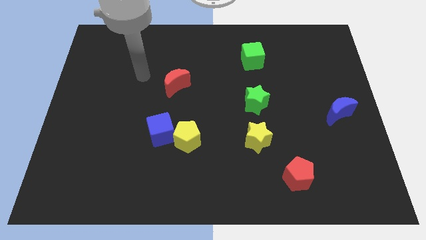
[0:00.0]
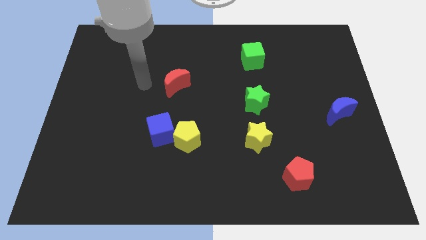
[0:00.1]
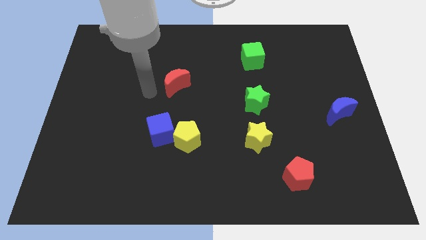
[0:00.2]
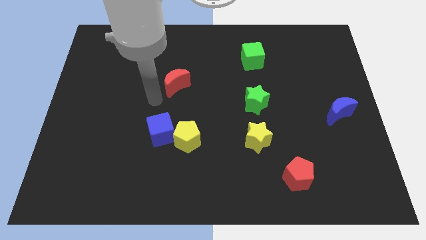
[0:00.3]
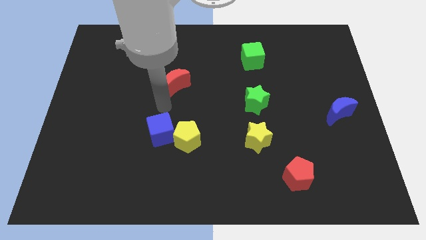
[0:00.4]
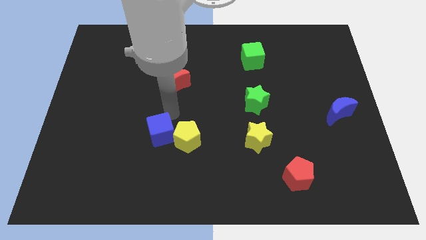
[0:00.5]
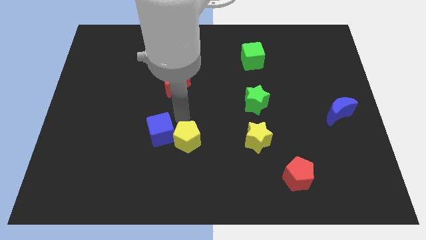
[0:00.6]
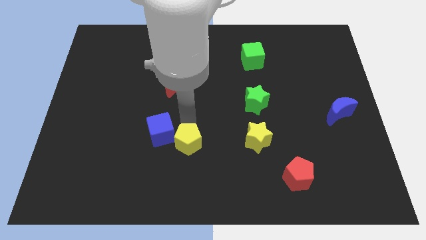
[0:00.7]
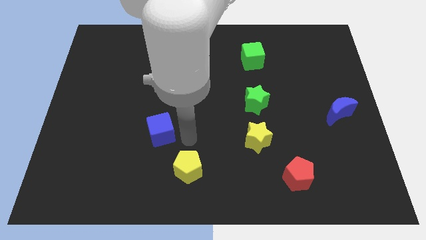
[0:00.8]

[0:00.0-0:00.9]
pull the blue cube apart from the yellow pentagon

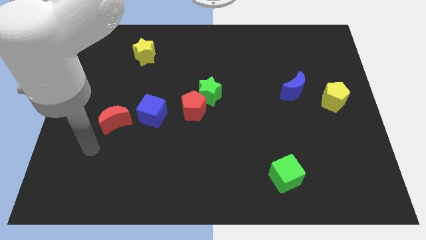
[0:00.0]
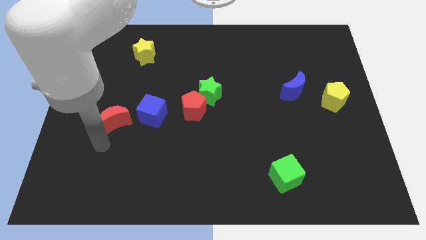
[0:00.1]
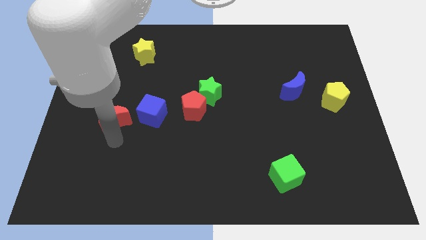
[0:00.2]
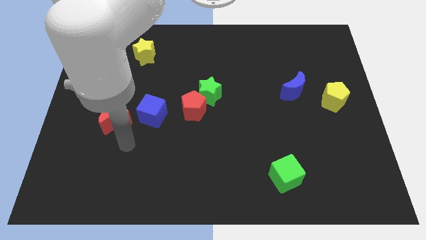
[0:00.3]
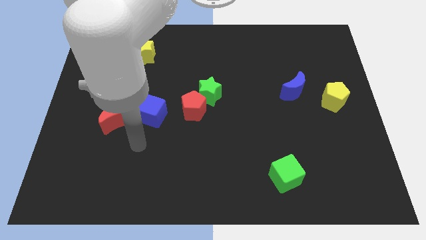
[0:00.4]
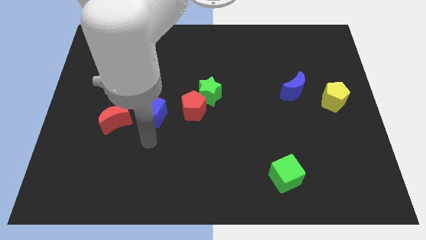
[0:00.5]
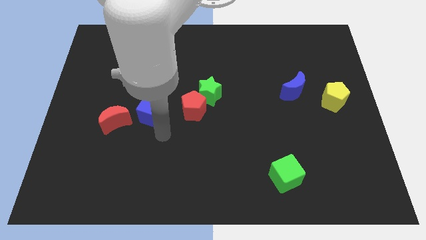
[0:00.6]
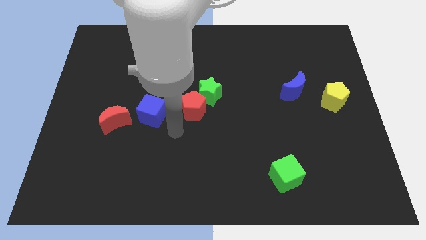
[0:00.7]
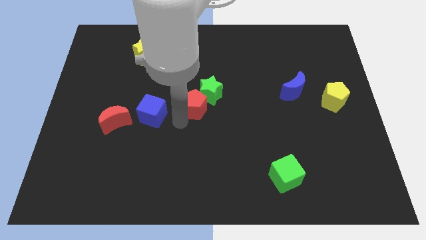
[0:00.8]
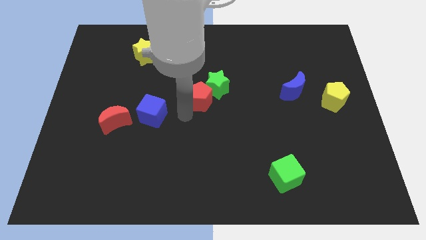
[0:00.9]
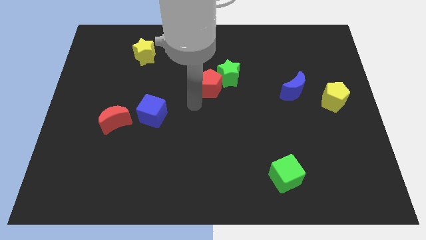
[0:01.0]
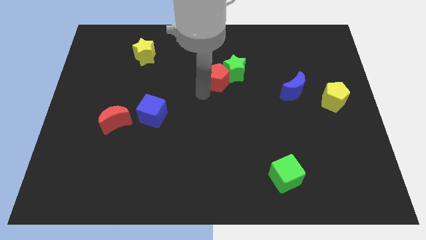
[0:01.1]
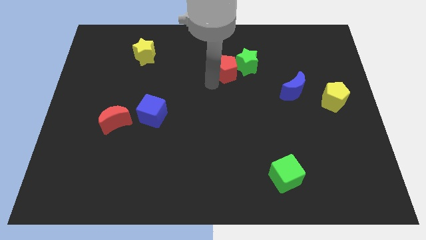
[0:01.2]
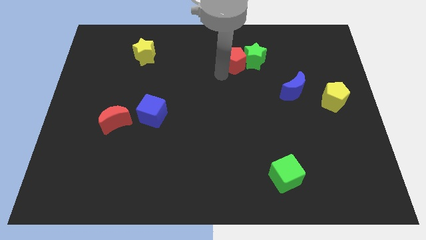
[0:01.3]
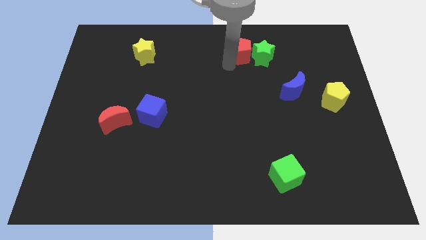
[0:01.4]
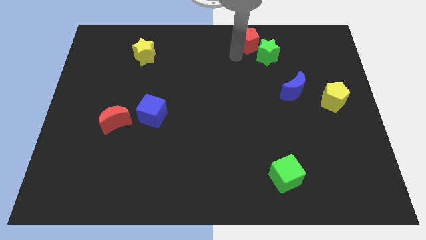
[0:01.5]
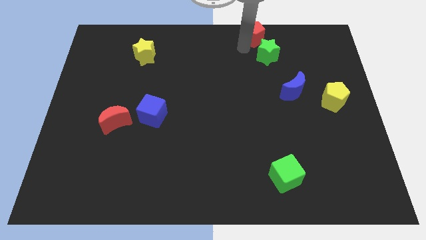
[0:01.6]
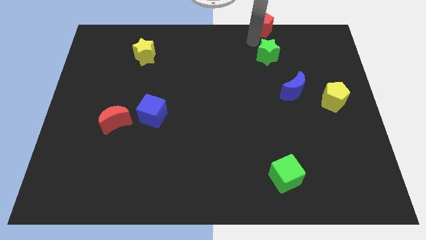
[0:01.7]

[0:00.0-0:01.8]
move the green star away from the red pentagon

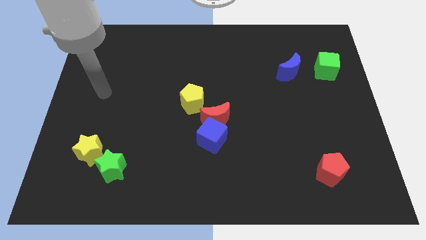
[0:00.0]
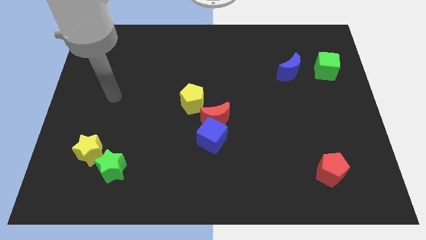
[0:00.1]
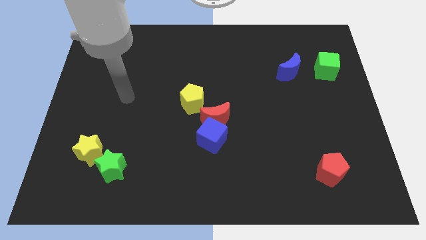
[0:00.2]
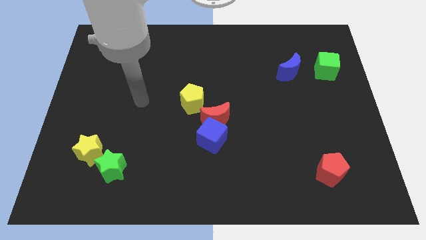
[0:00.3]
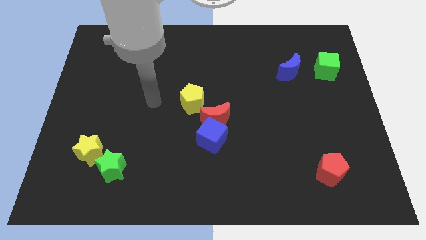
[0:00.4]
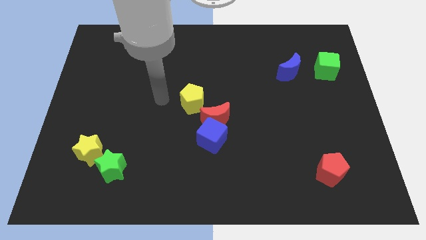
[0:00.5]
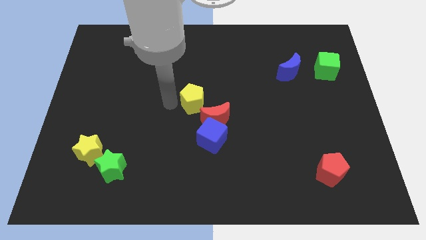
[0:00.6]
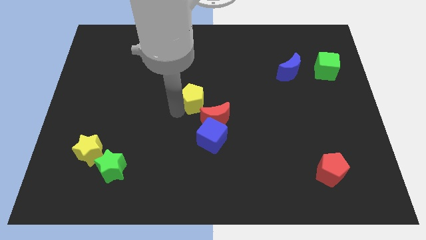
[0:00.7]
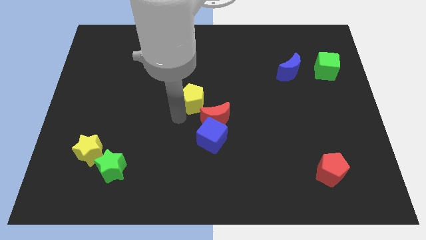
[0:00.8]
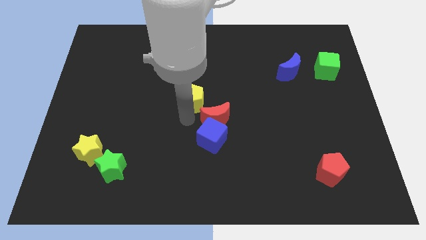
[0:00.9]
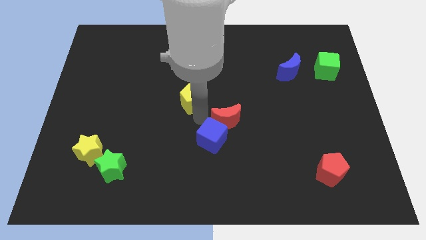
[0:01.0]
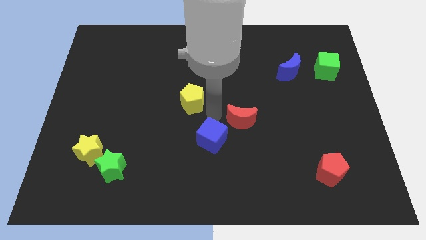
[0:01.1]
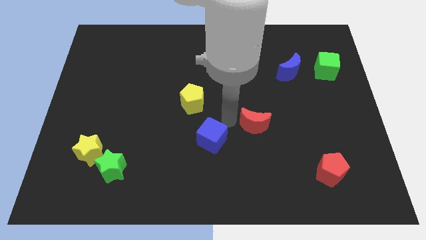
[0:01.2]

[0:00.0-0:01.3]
move the blue cube away from the red moon

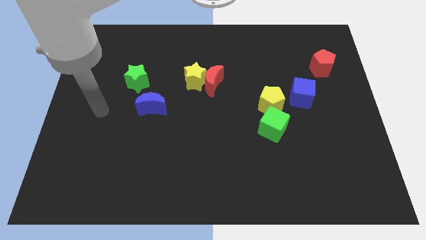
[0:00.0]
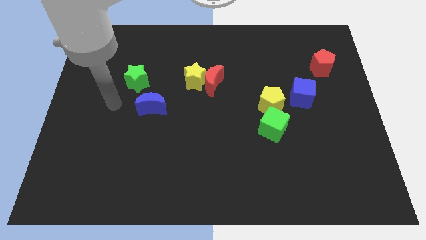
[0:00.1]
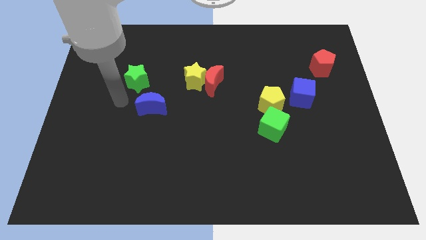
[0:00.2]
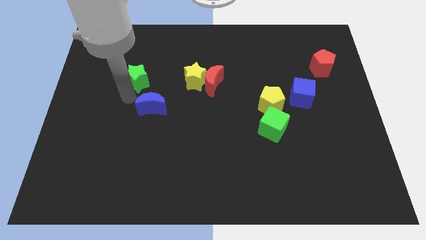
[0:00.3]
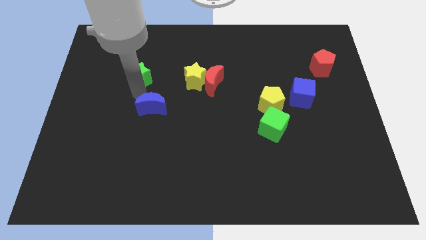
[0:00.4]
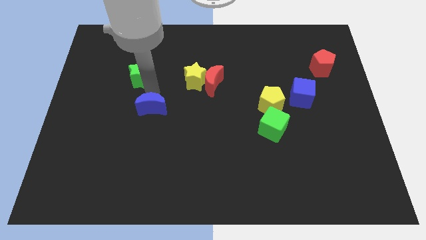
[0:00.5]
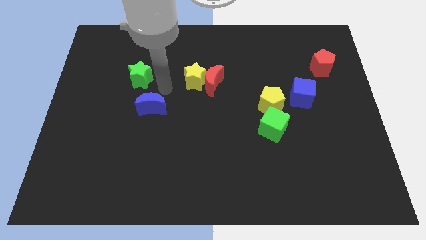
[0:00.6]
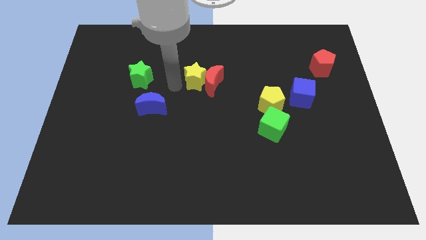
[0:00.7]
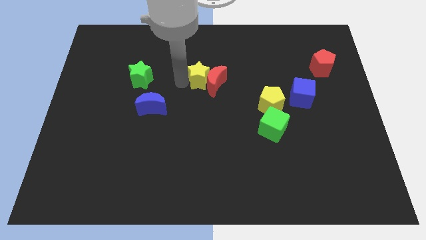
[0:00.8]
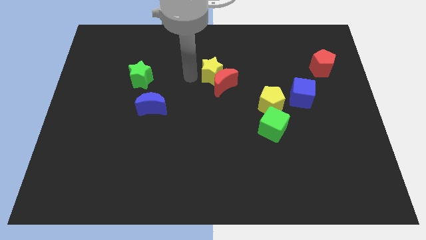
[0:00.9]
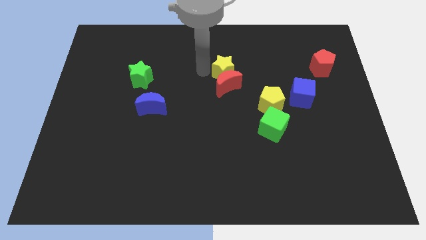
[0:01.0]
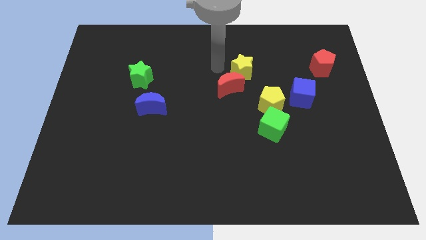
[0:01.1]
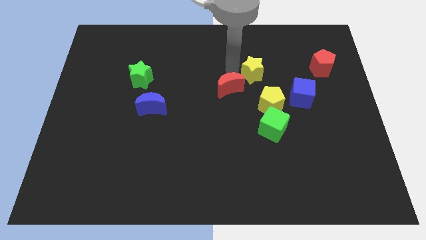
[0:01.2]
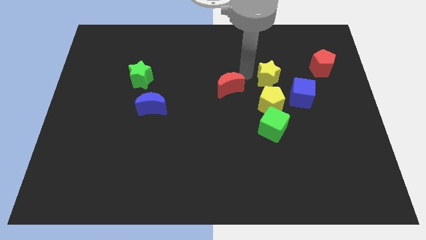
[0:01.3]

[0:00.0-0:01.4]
move the red moon away from the yellow star

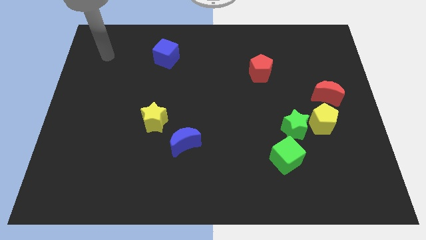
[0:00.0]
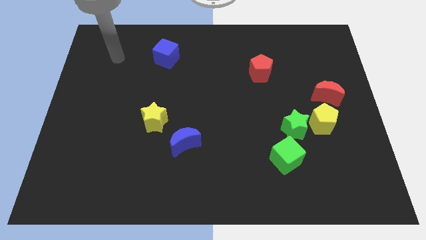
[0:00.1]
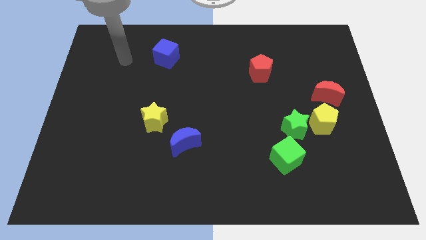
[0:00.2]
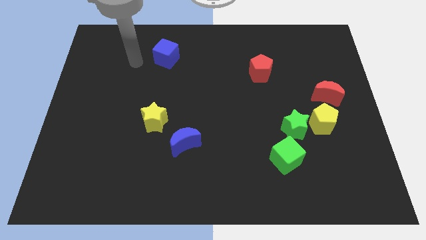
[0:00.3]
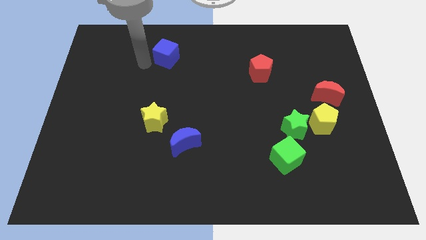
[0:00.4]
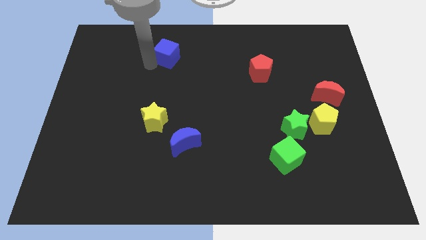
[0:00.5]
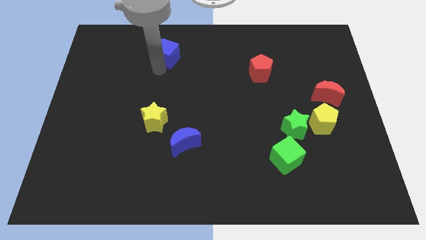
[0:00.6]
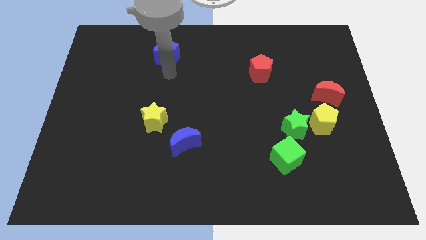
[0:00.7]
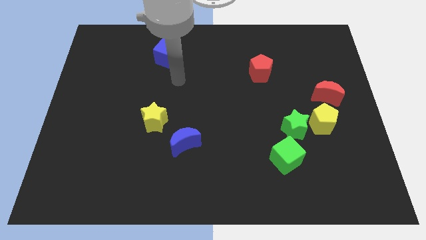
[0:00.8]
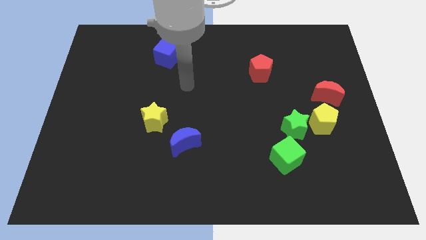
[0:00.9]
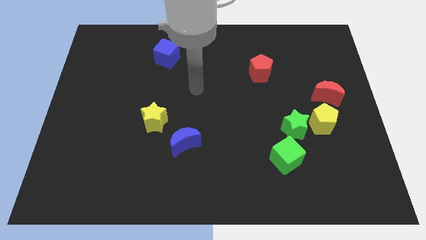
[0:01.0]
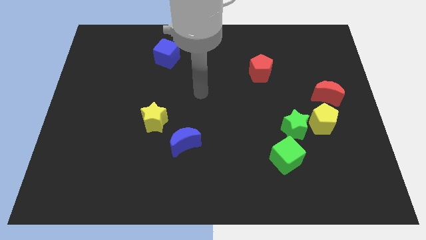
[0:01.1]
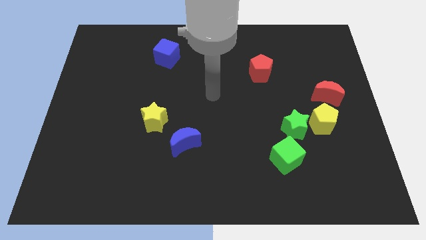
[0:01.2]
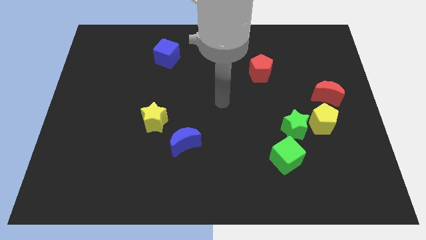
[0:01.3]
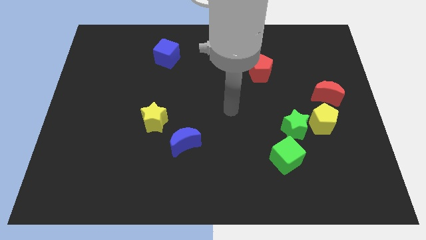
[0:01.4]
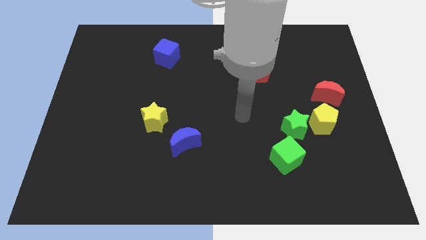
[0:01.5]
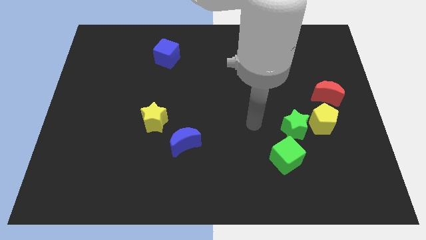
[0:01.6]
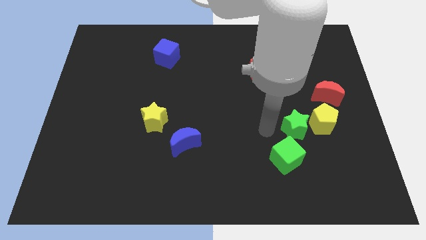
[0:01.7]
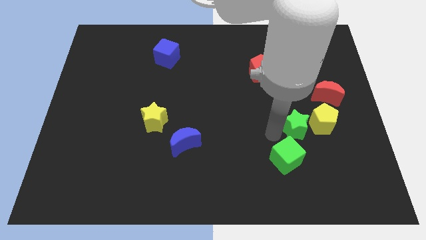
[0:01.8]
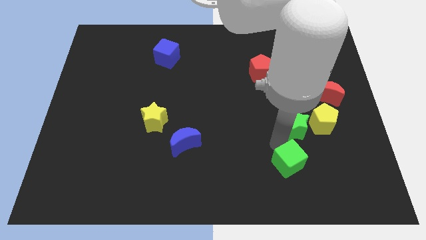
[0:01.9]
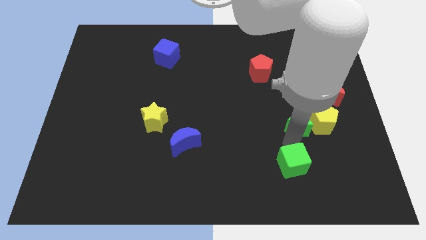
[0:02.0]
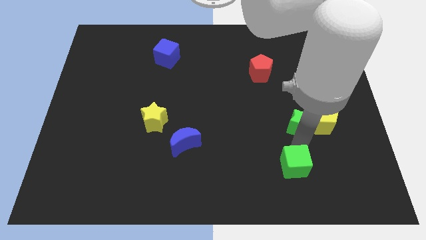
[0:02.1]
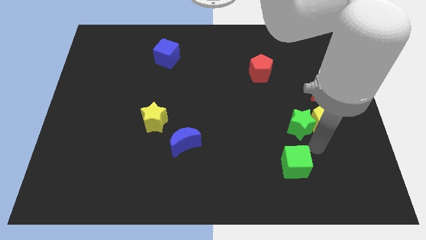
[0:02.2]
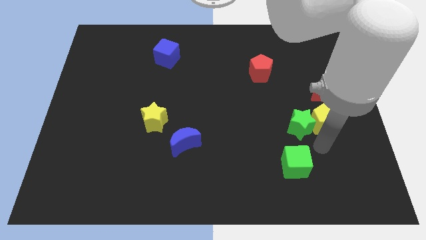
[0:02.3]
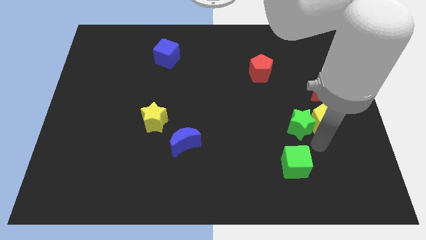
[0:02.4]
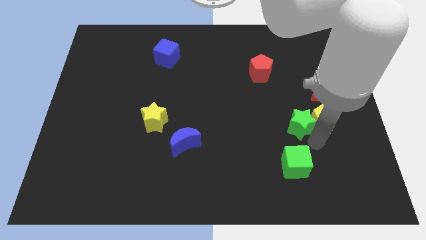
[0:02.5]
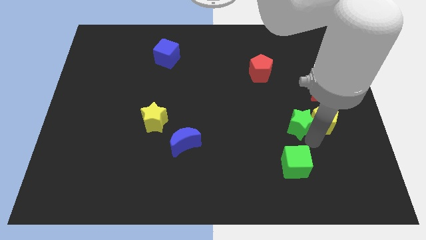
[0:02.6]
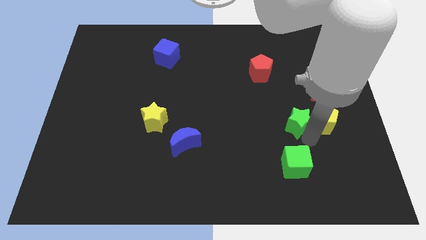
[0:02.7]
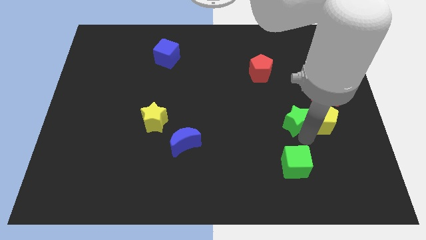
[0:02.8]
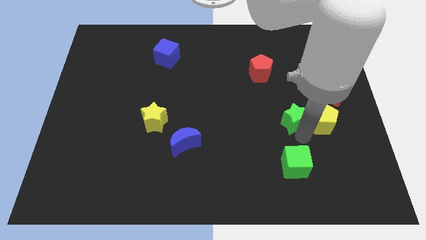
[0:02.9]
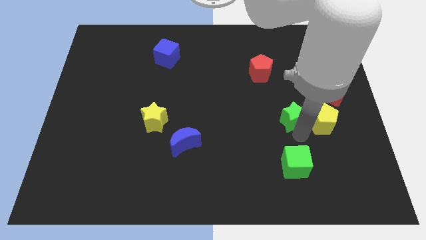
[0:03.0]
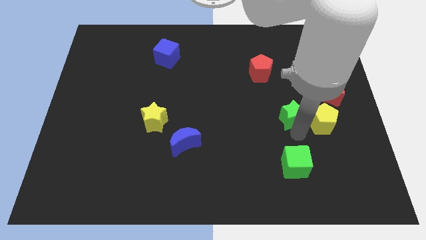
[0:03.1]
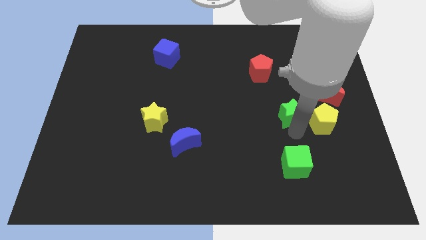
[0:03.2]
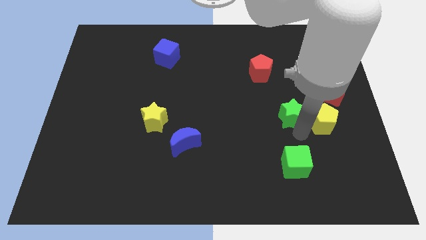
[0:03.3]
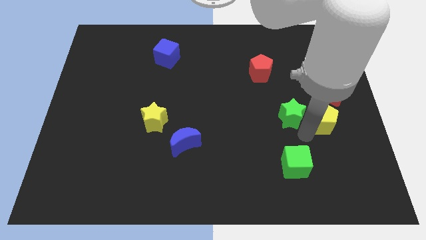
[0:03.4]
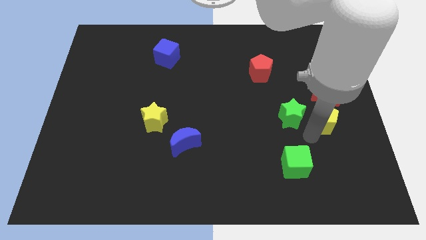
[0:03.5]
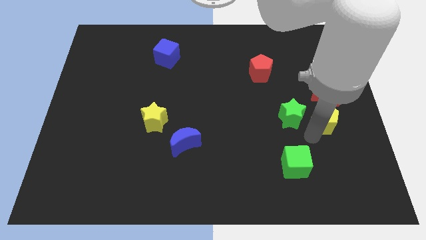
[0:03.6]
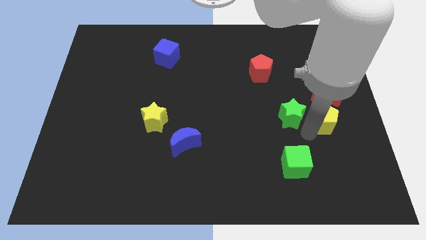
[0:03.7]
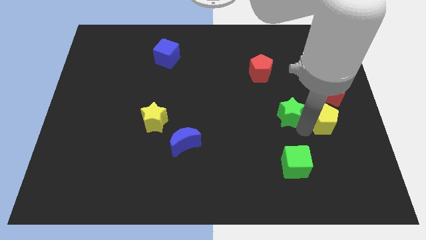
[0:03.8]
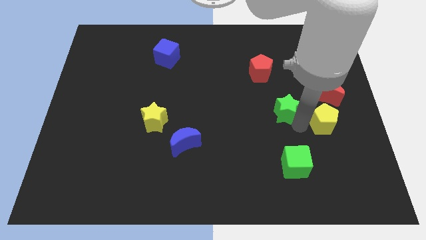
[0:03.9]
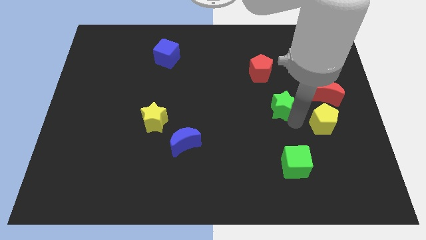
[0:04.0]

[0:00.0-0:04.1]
move the green star away from the yellow pentagon and green cube
